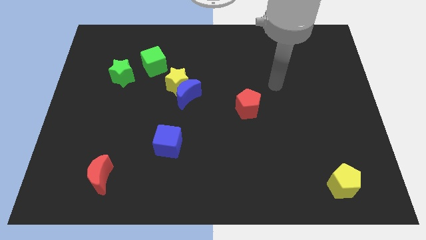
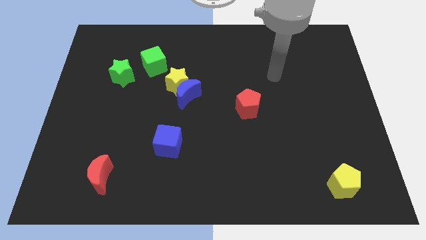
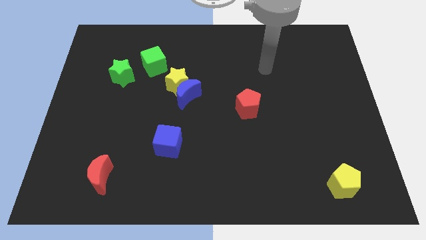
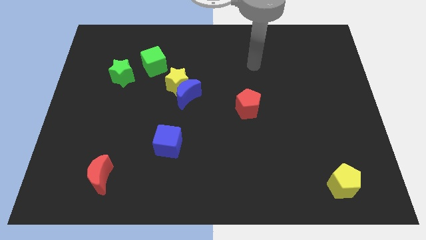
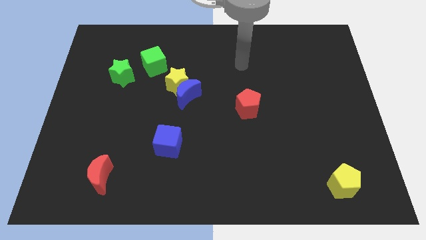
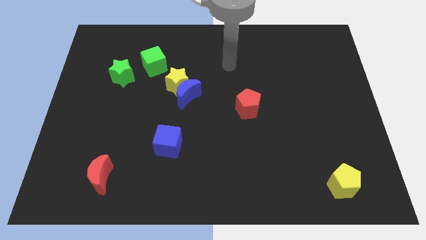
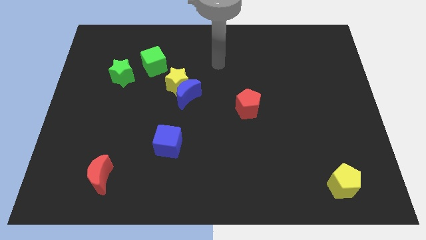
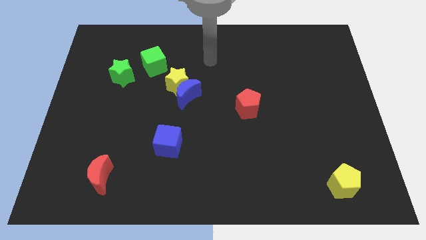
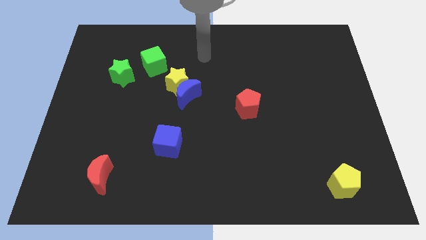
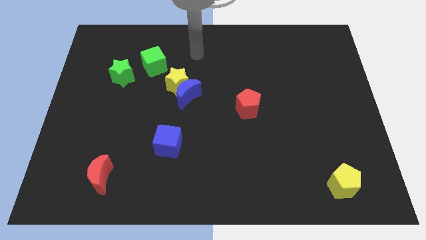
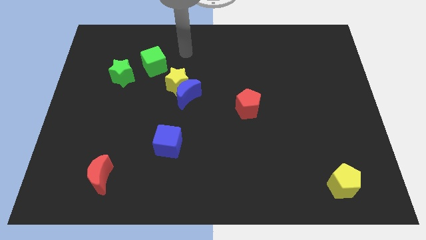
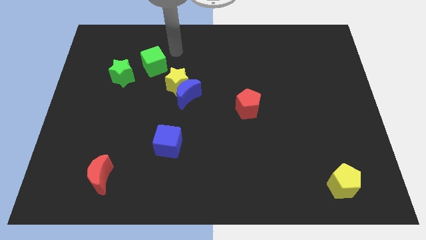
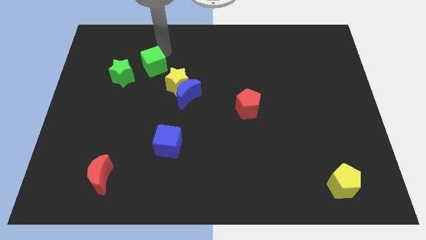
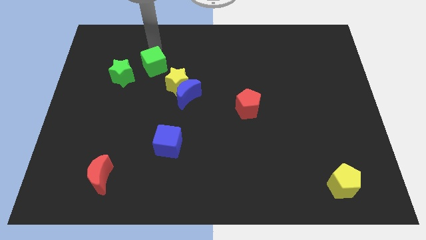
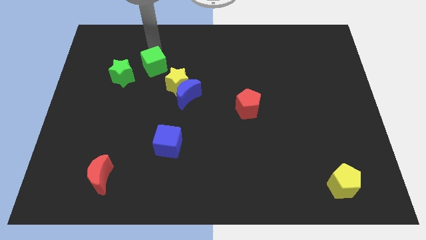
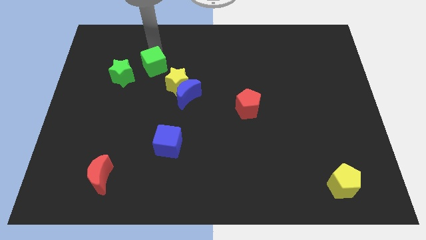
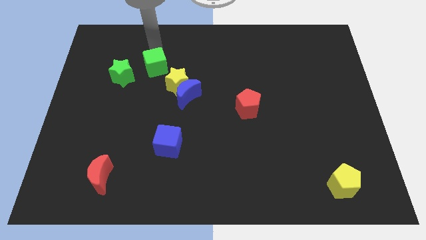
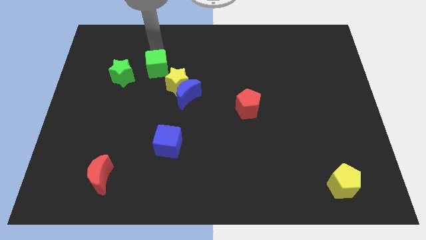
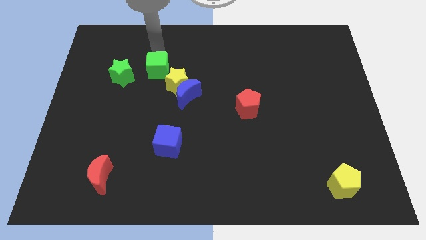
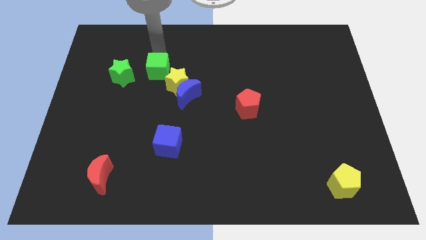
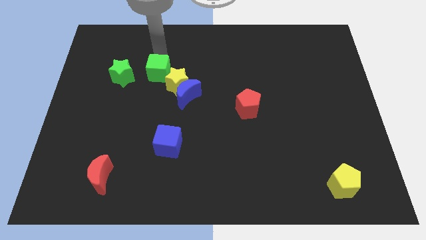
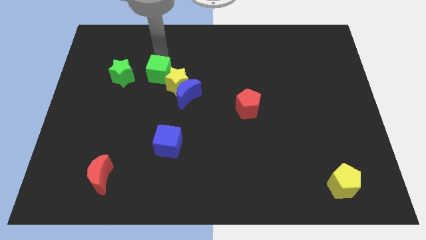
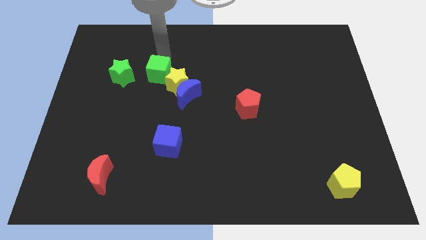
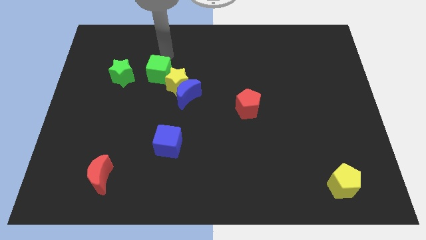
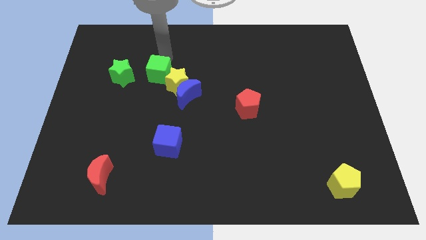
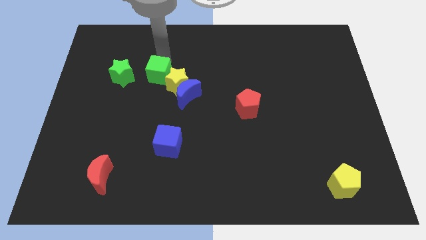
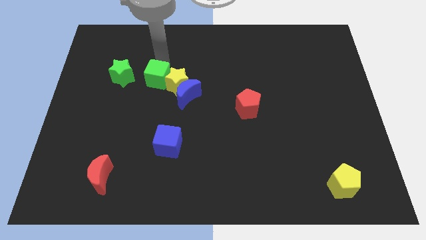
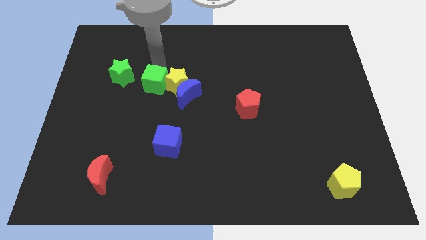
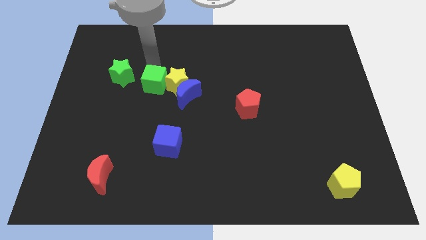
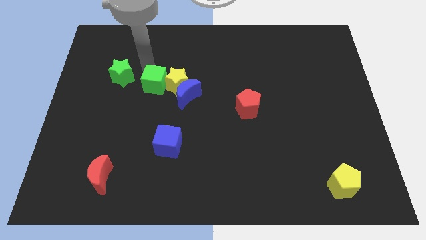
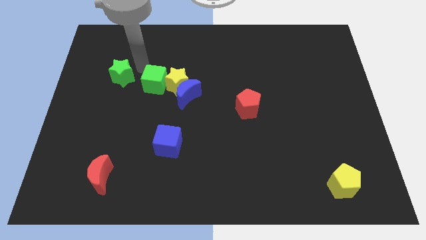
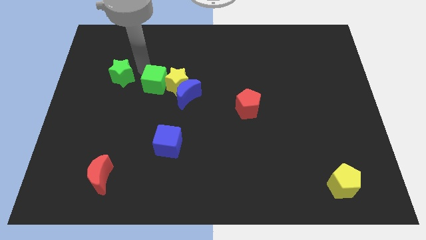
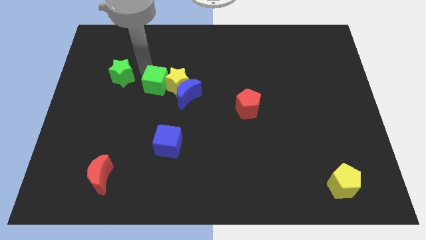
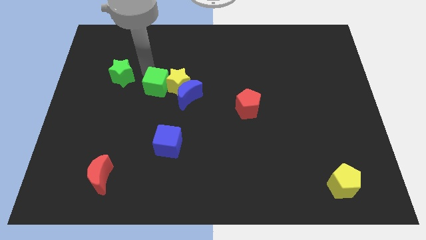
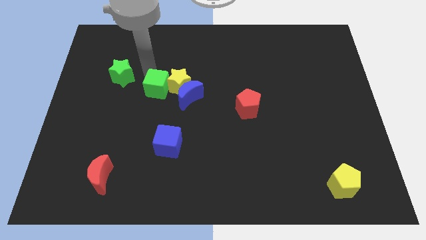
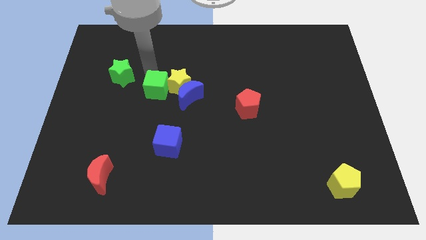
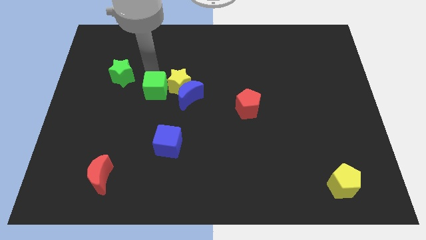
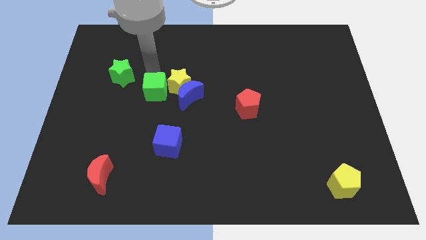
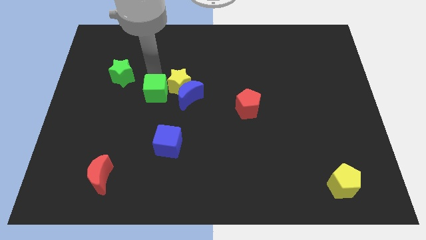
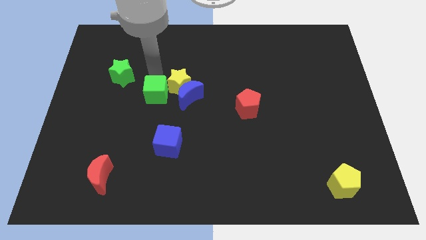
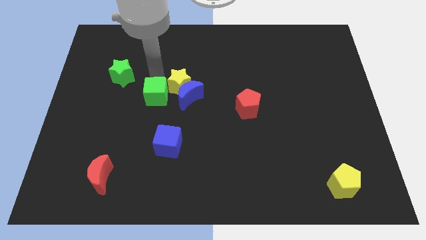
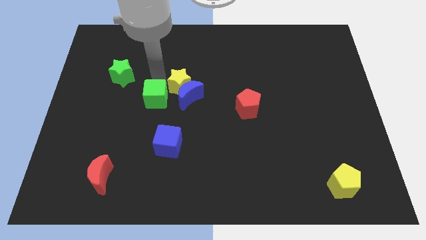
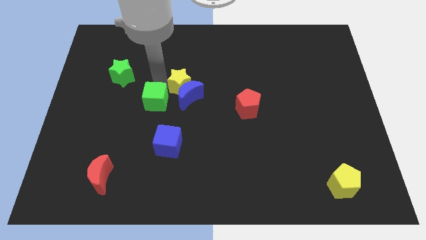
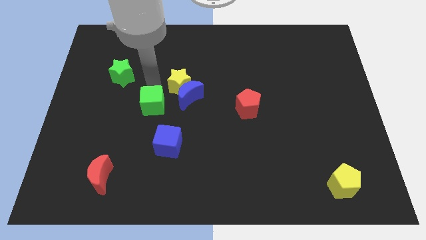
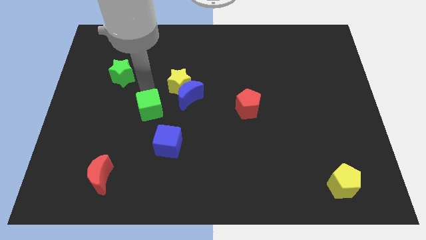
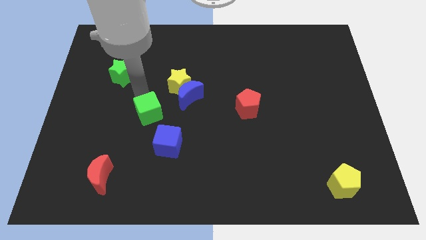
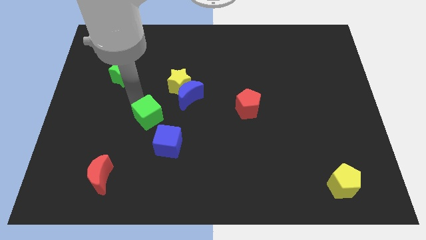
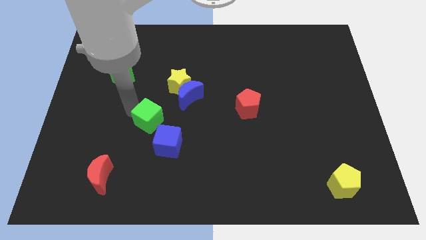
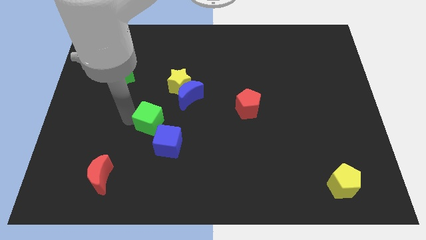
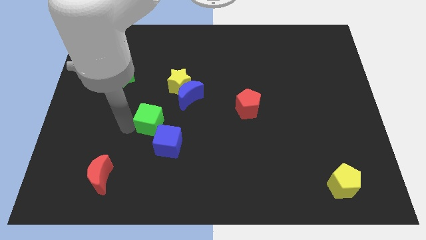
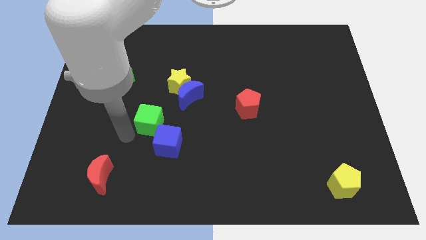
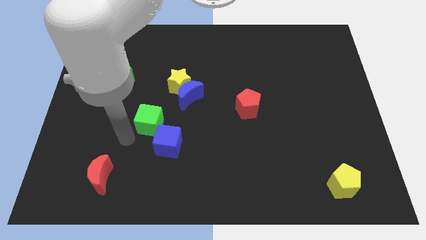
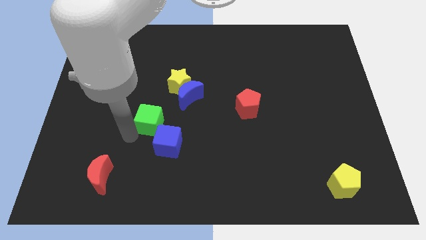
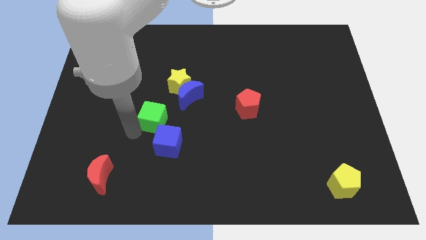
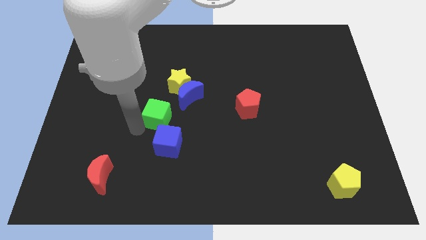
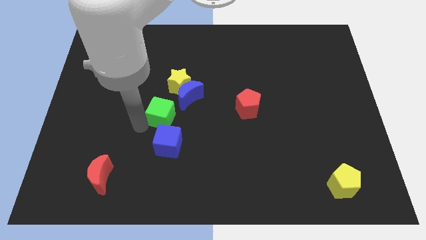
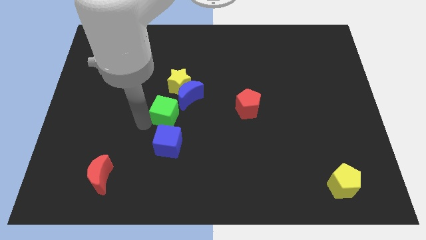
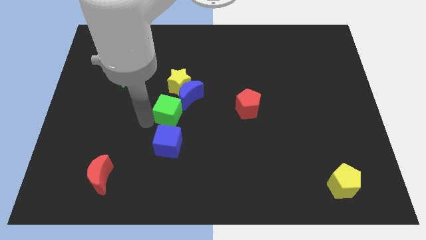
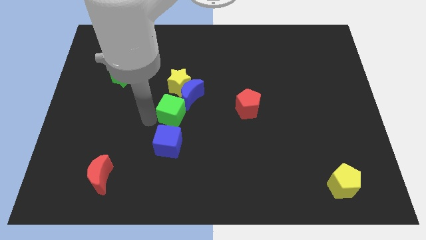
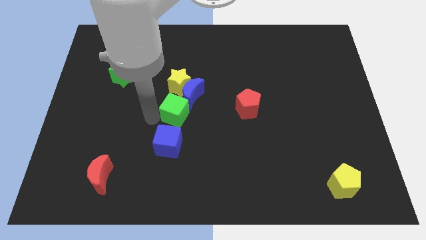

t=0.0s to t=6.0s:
move the green cube to the blue moon

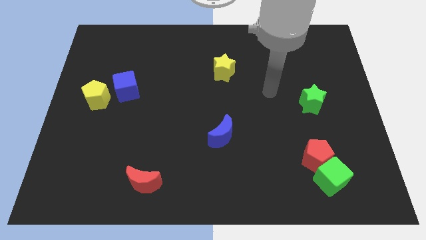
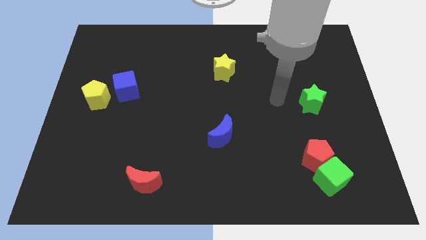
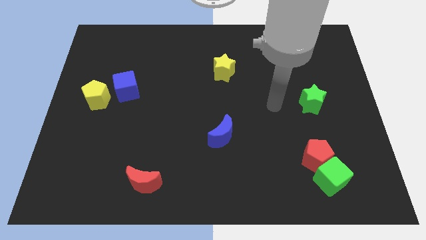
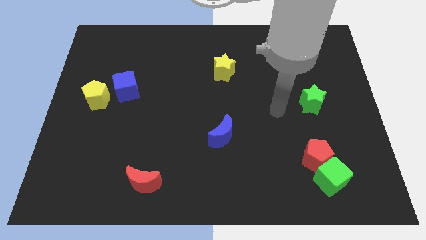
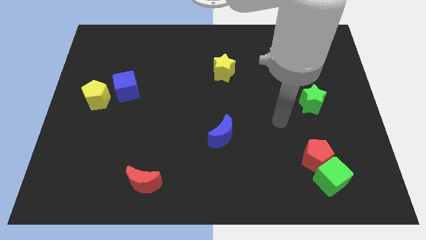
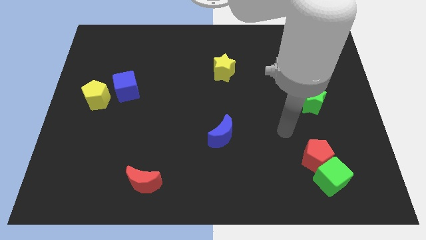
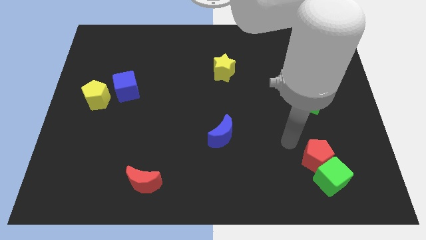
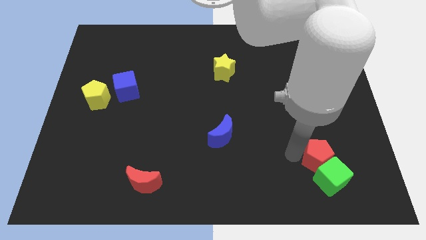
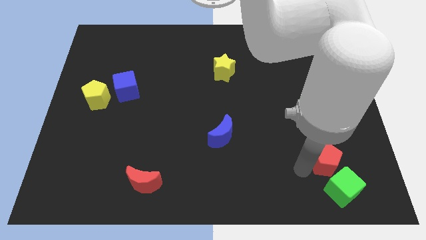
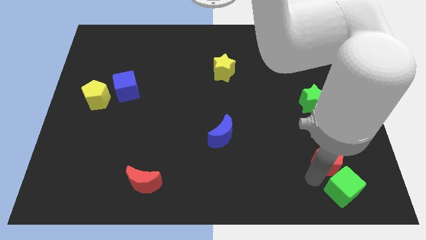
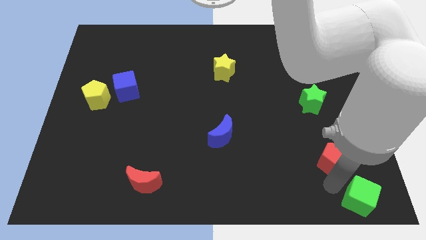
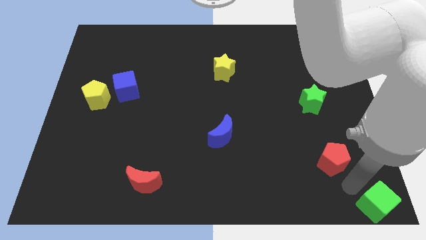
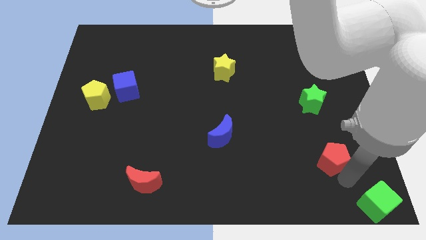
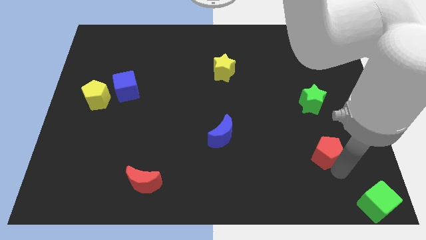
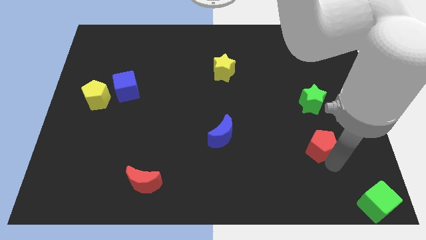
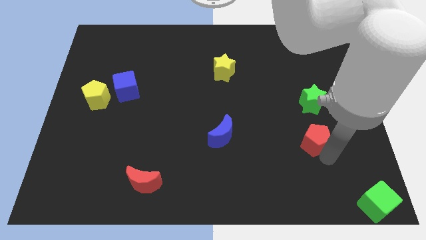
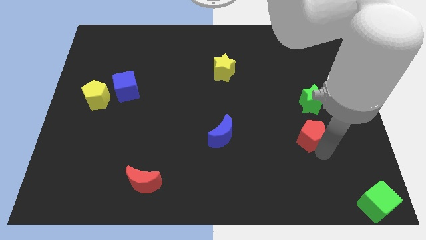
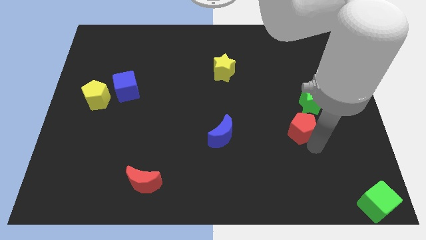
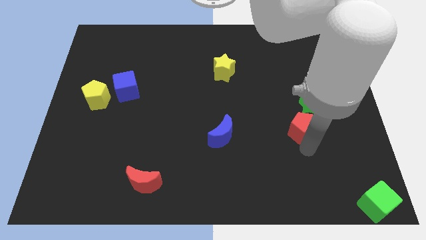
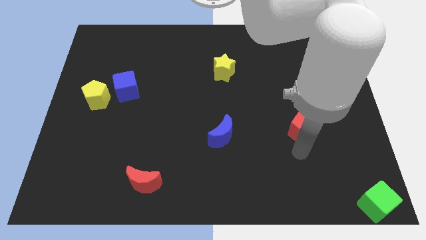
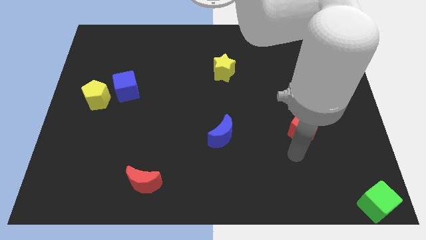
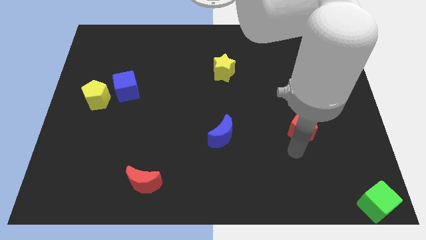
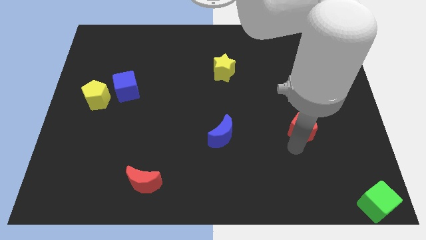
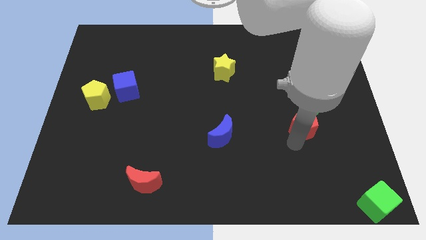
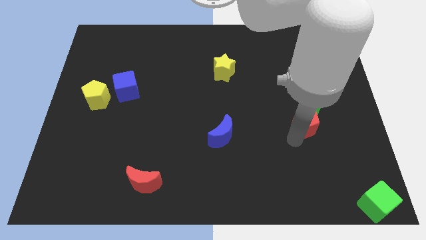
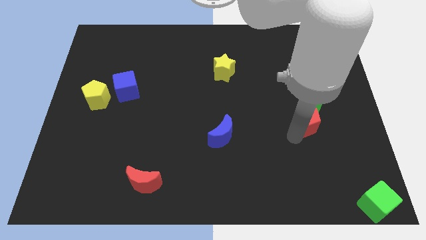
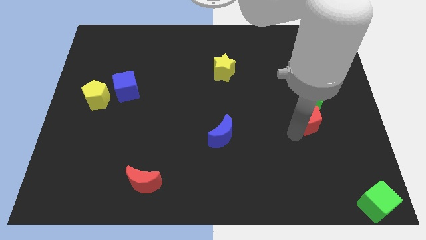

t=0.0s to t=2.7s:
push the red pentagon towards the green star
